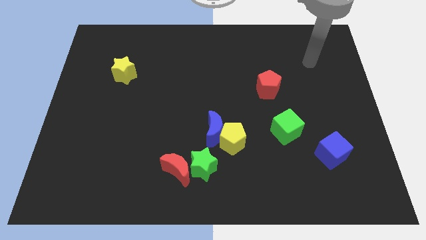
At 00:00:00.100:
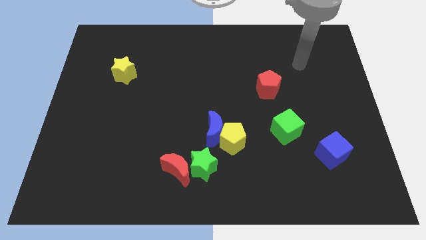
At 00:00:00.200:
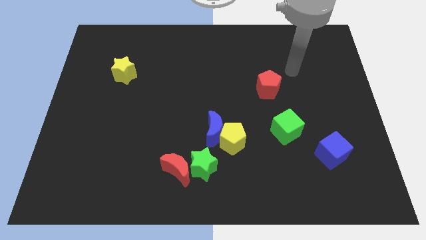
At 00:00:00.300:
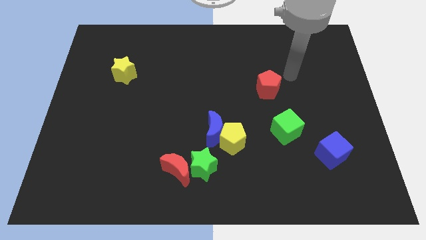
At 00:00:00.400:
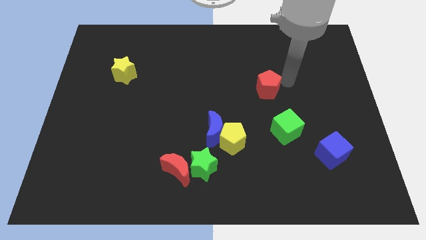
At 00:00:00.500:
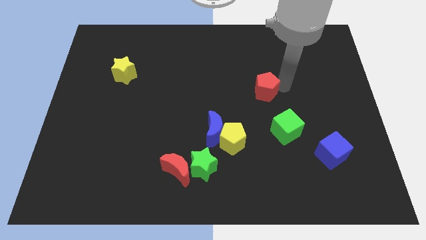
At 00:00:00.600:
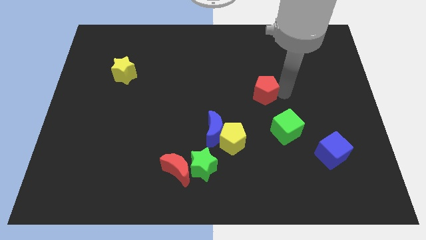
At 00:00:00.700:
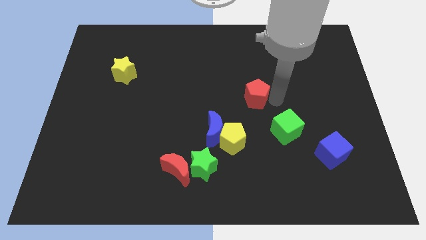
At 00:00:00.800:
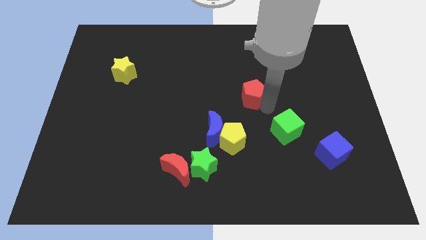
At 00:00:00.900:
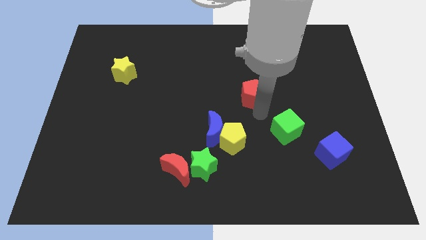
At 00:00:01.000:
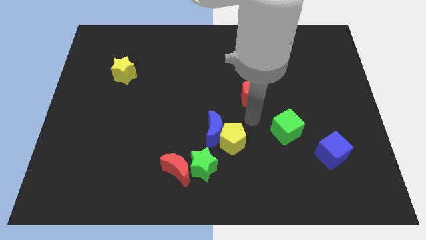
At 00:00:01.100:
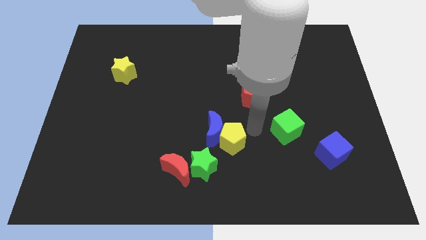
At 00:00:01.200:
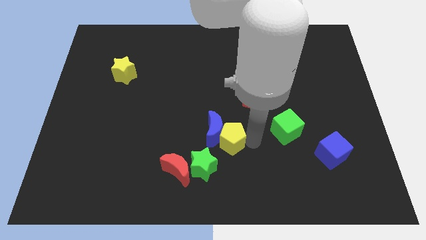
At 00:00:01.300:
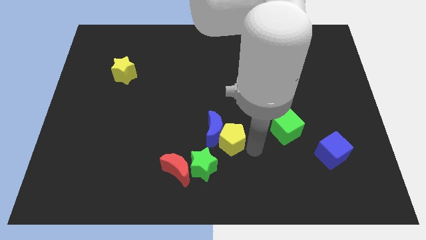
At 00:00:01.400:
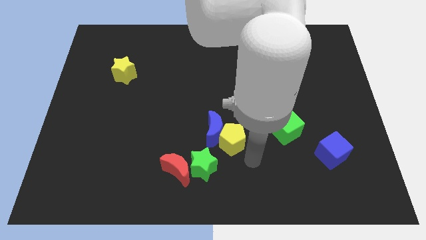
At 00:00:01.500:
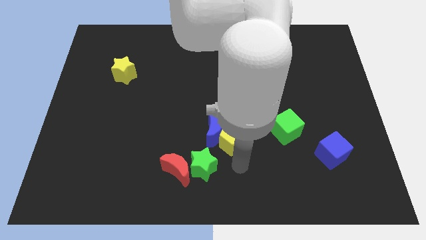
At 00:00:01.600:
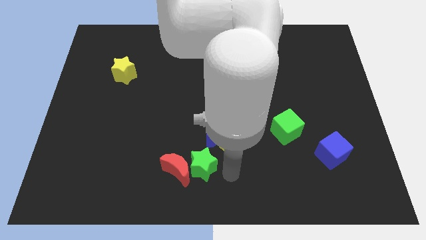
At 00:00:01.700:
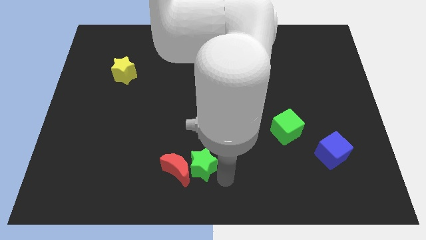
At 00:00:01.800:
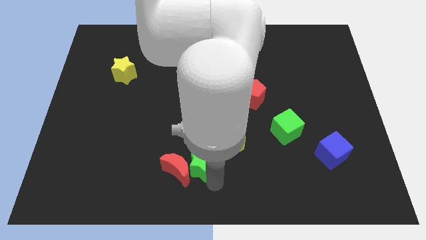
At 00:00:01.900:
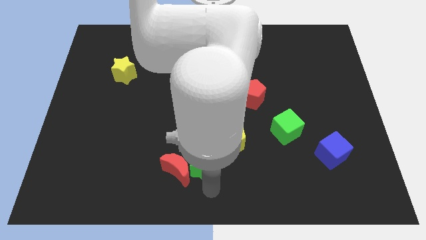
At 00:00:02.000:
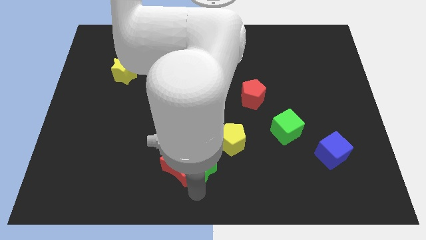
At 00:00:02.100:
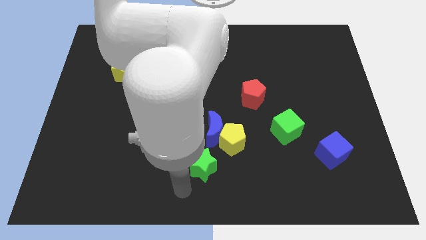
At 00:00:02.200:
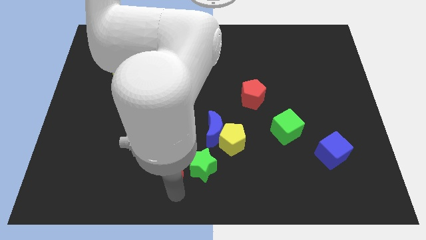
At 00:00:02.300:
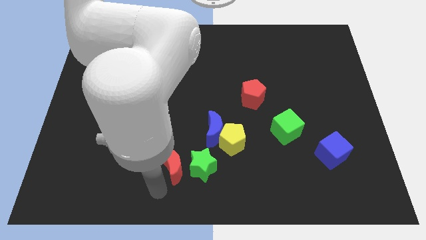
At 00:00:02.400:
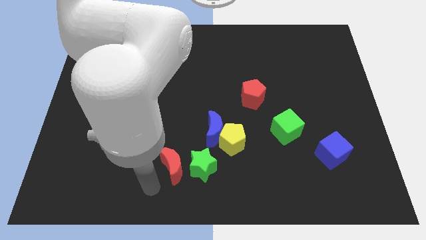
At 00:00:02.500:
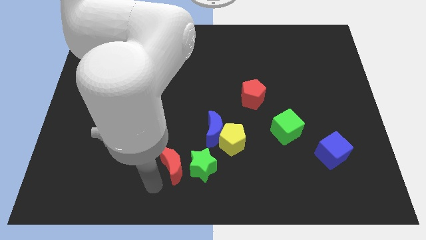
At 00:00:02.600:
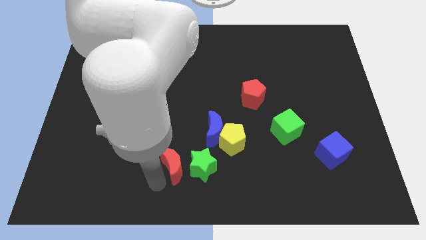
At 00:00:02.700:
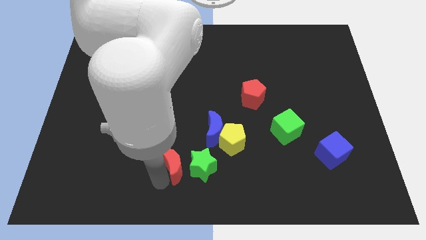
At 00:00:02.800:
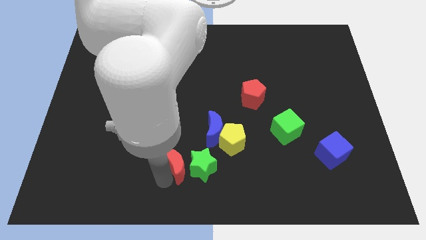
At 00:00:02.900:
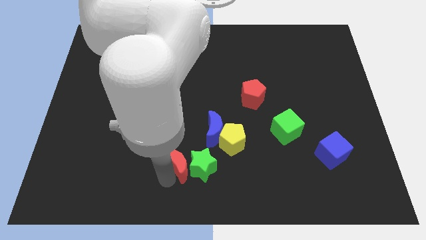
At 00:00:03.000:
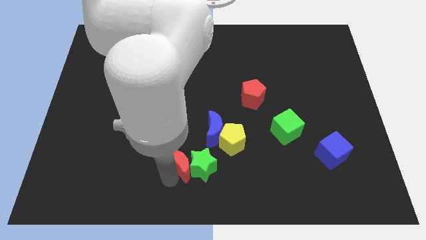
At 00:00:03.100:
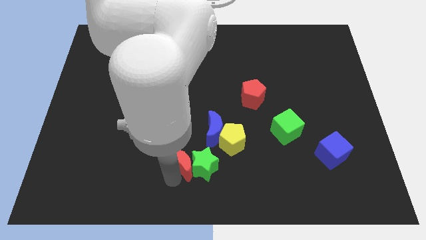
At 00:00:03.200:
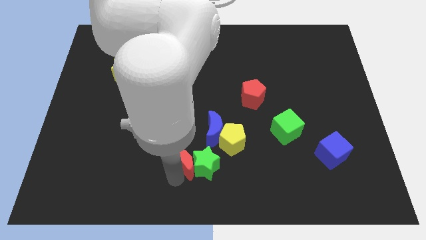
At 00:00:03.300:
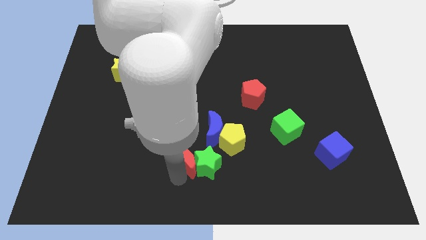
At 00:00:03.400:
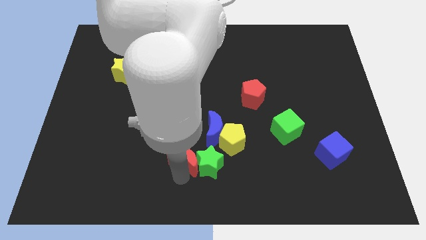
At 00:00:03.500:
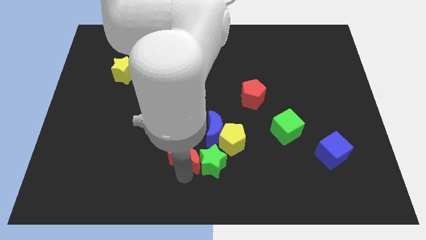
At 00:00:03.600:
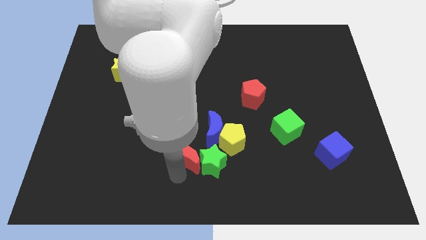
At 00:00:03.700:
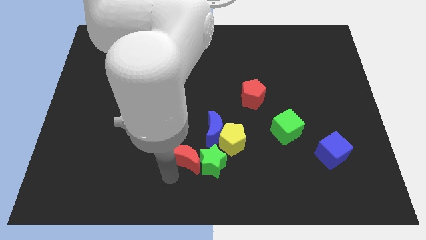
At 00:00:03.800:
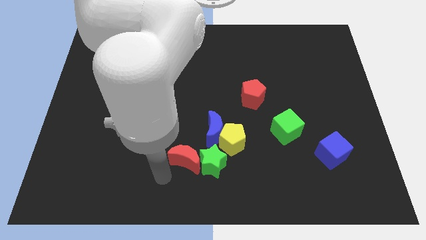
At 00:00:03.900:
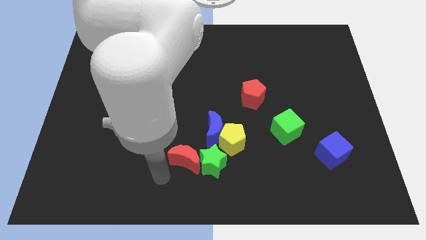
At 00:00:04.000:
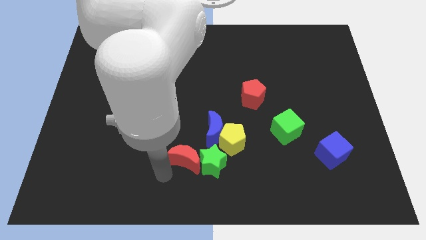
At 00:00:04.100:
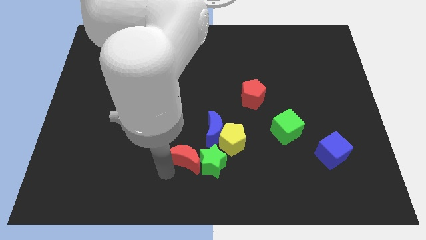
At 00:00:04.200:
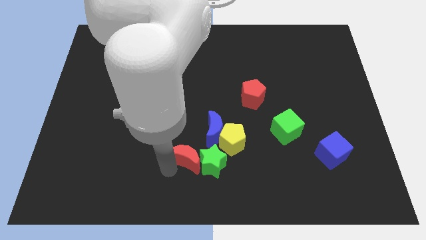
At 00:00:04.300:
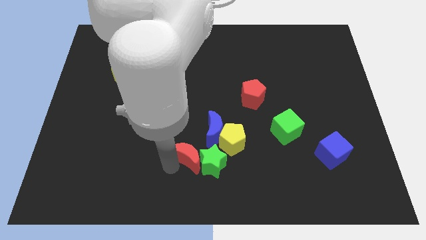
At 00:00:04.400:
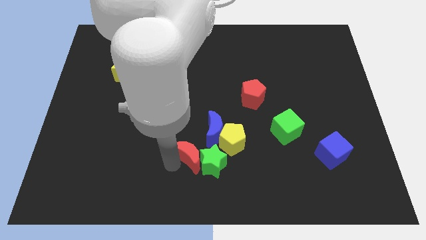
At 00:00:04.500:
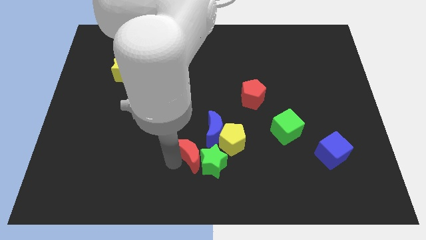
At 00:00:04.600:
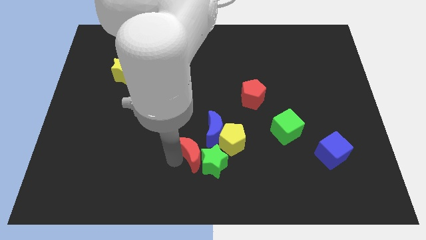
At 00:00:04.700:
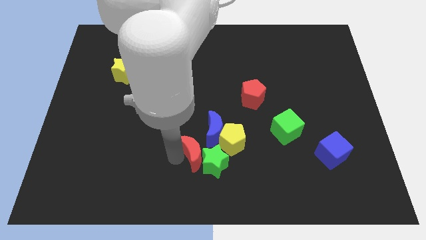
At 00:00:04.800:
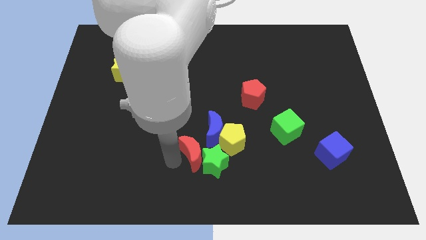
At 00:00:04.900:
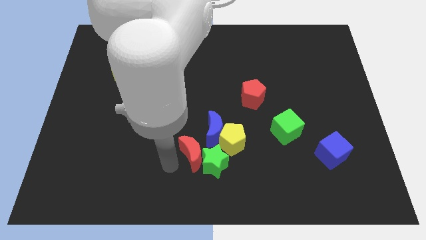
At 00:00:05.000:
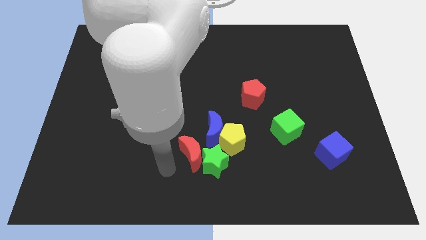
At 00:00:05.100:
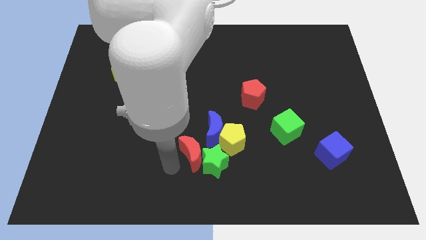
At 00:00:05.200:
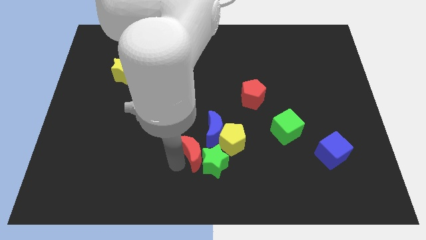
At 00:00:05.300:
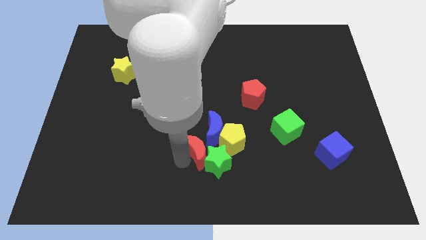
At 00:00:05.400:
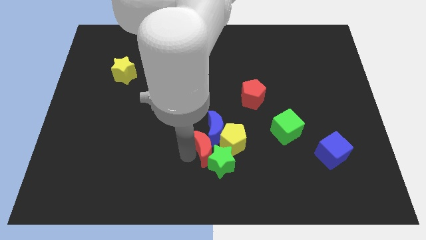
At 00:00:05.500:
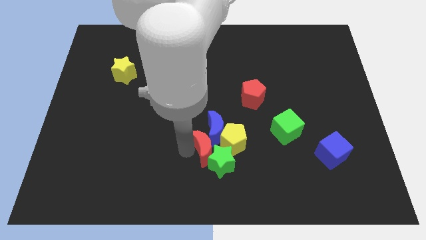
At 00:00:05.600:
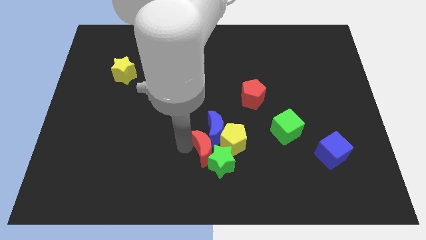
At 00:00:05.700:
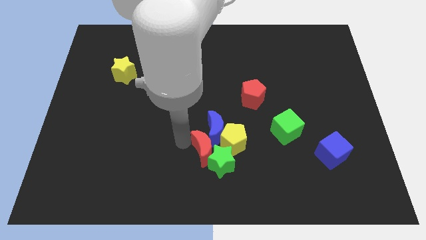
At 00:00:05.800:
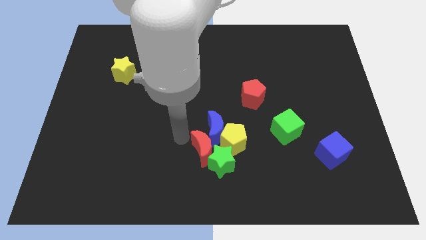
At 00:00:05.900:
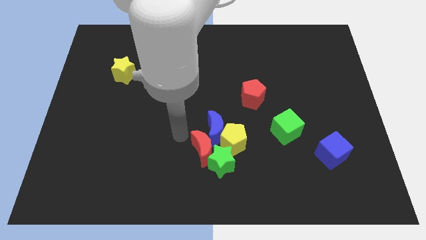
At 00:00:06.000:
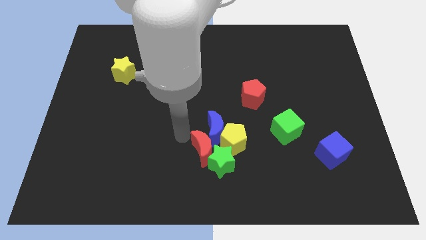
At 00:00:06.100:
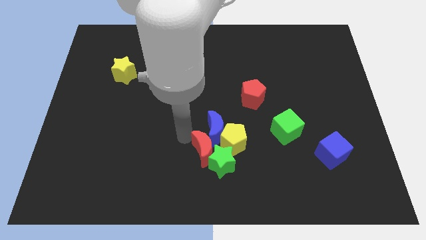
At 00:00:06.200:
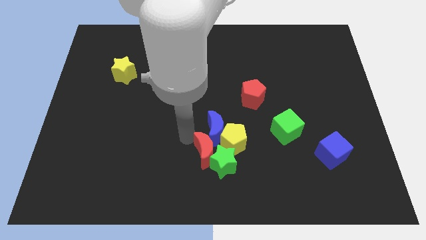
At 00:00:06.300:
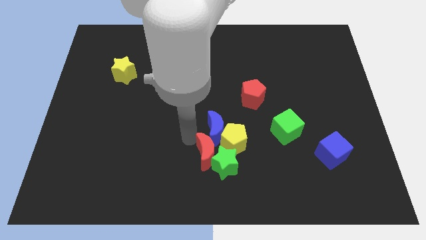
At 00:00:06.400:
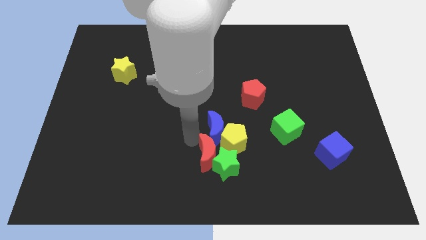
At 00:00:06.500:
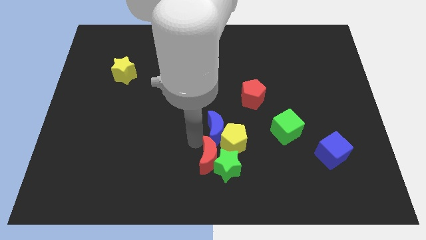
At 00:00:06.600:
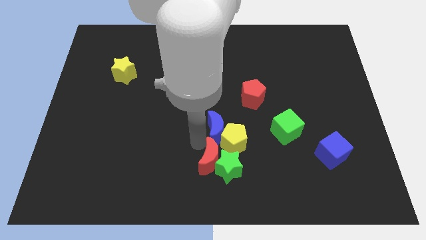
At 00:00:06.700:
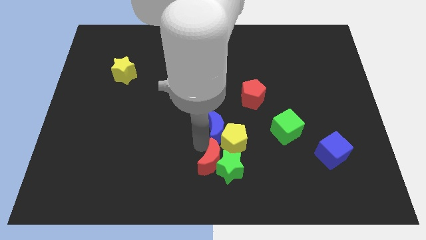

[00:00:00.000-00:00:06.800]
push the red moon to the right somewhat

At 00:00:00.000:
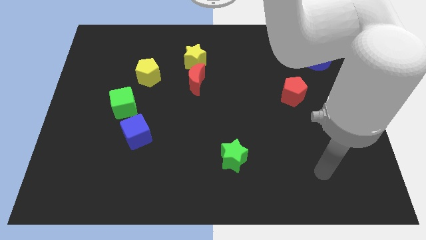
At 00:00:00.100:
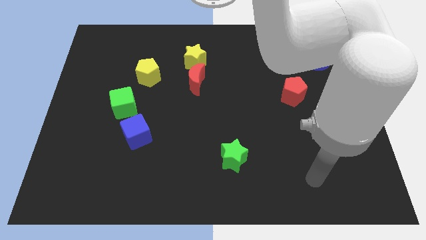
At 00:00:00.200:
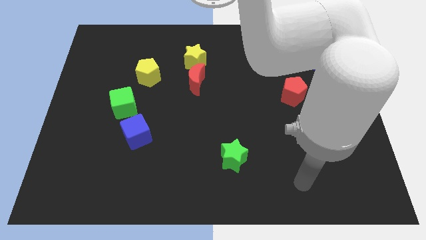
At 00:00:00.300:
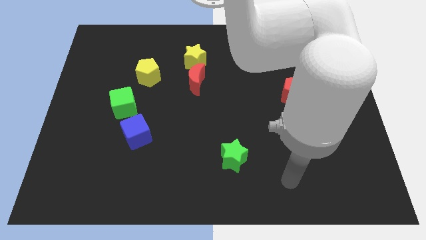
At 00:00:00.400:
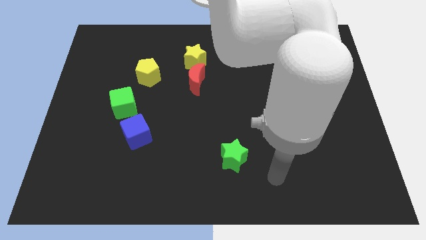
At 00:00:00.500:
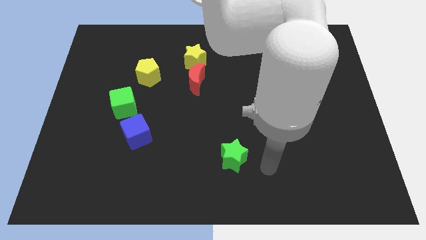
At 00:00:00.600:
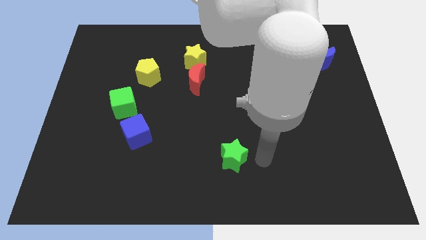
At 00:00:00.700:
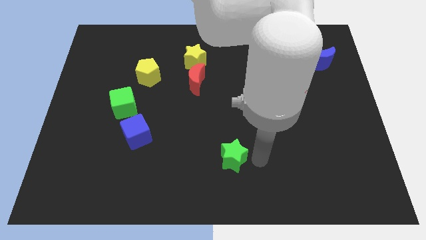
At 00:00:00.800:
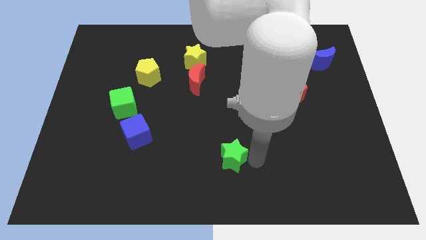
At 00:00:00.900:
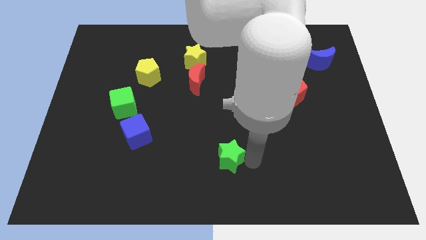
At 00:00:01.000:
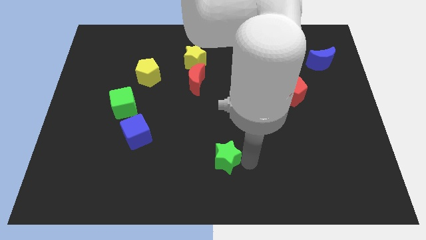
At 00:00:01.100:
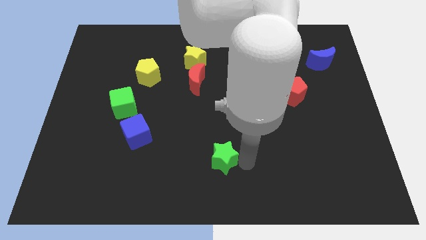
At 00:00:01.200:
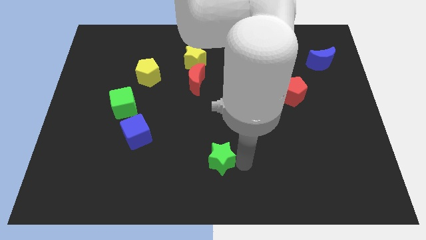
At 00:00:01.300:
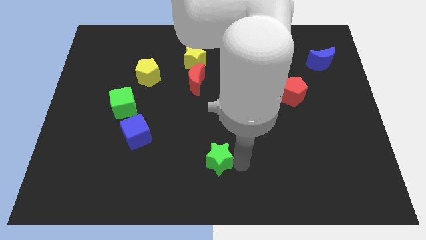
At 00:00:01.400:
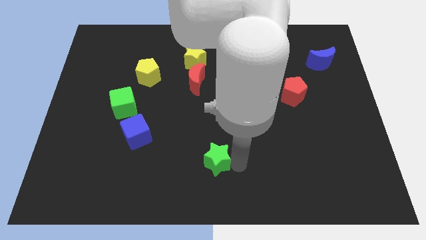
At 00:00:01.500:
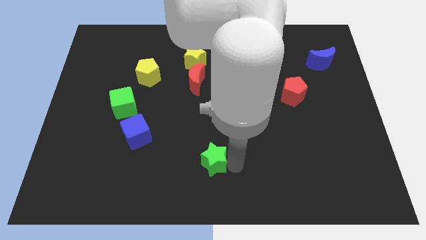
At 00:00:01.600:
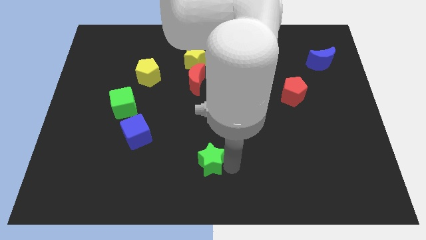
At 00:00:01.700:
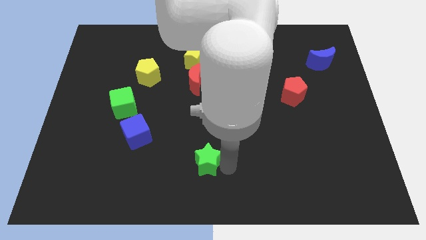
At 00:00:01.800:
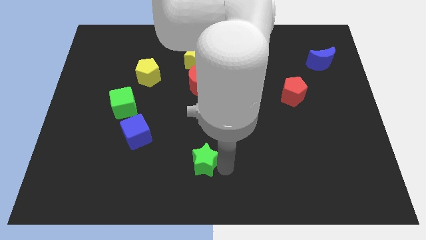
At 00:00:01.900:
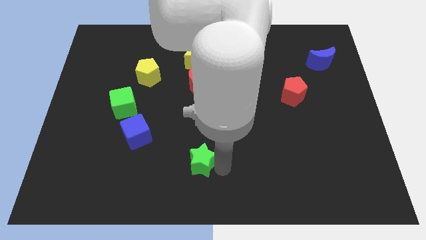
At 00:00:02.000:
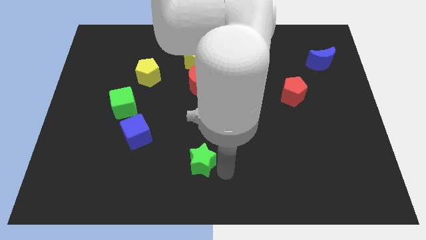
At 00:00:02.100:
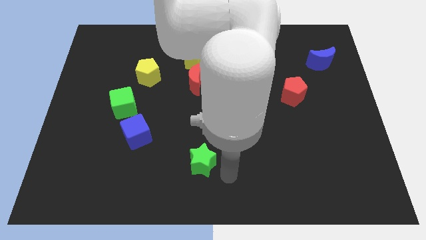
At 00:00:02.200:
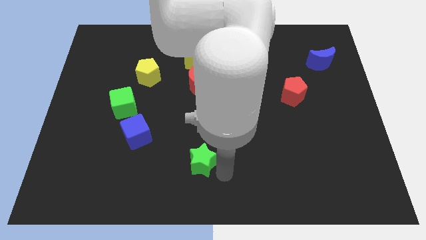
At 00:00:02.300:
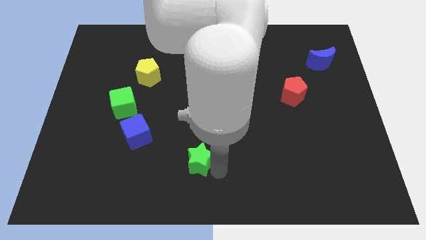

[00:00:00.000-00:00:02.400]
push the green star a little bit left
